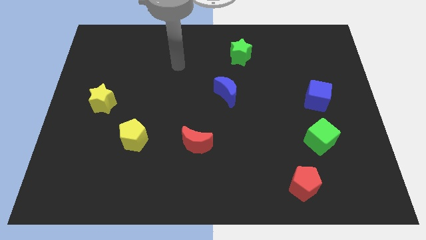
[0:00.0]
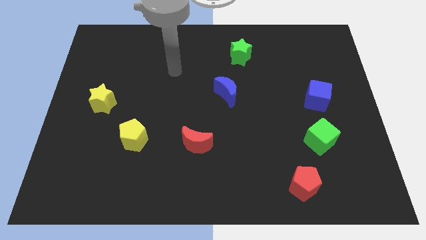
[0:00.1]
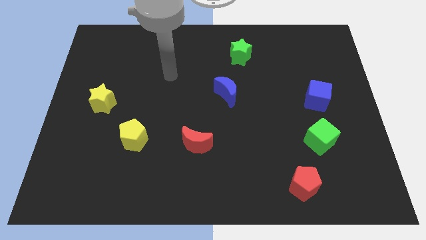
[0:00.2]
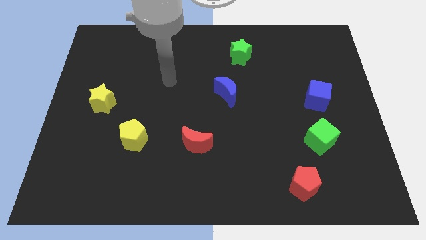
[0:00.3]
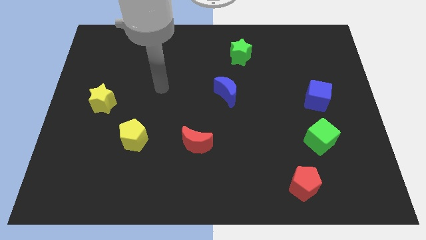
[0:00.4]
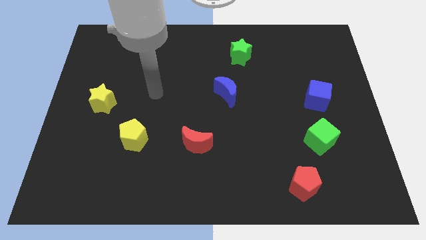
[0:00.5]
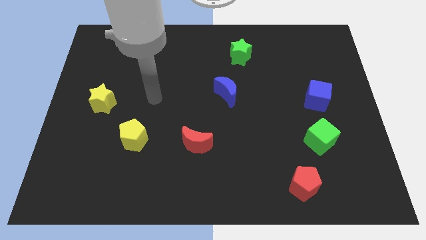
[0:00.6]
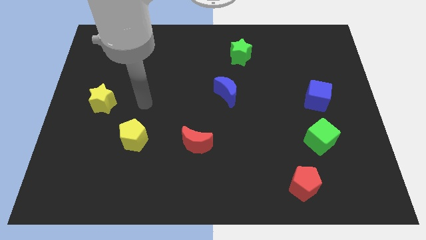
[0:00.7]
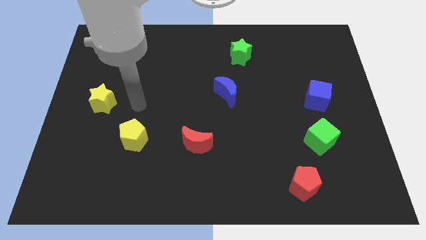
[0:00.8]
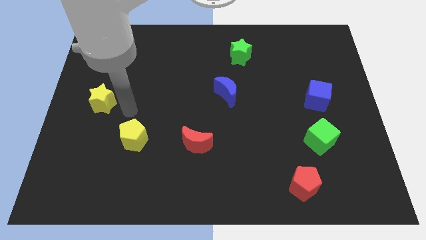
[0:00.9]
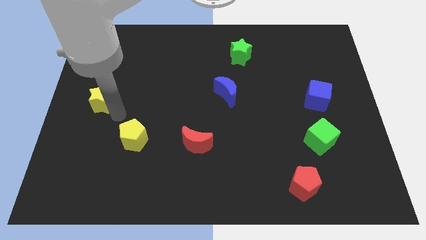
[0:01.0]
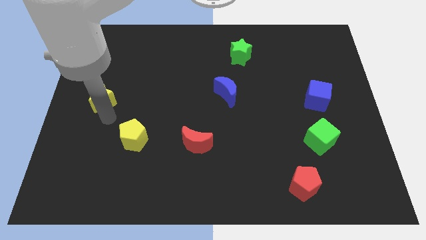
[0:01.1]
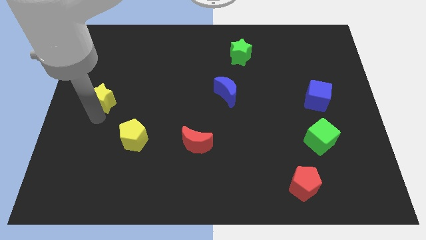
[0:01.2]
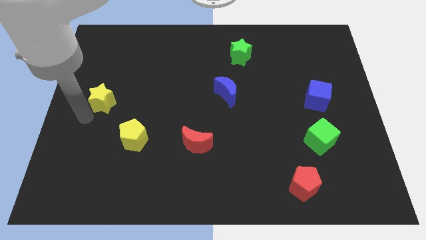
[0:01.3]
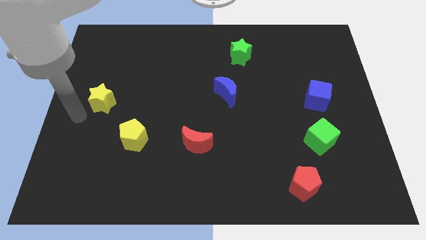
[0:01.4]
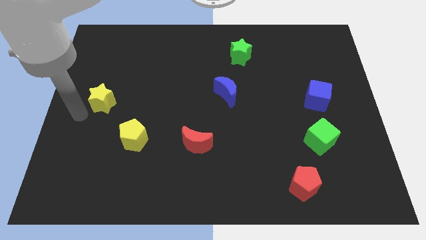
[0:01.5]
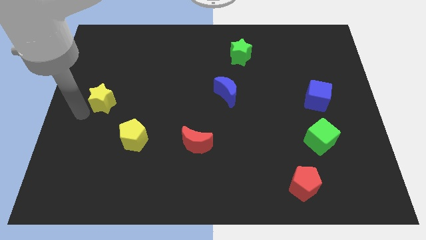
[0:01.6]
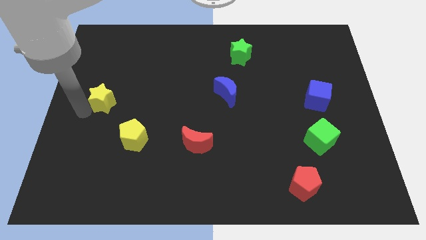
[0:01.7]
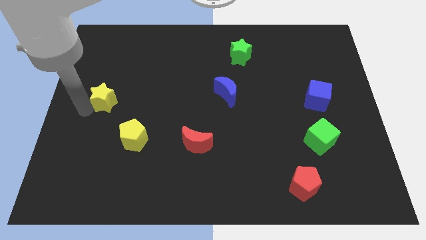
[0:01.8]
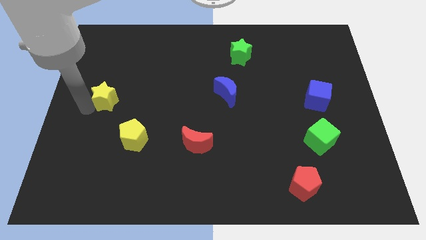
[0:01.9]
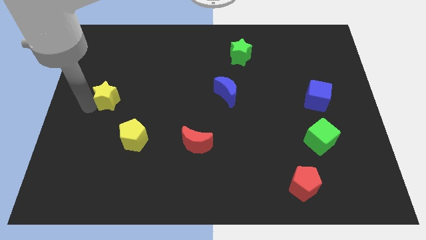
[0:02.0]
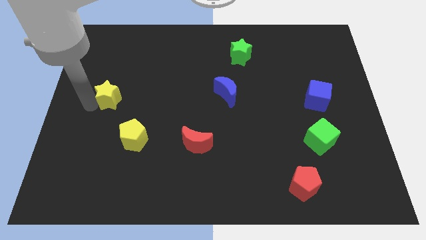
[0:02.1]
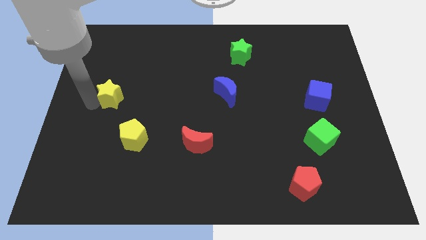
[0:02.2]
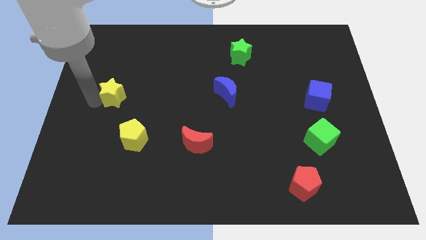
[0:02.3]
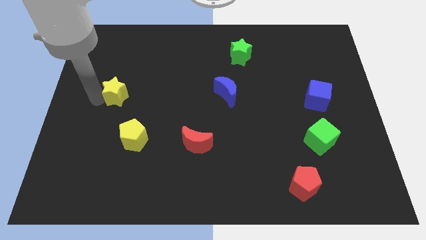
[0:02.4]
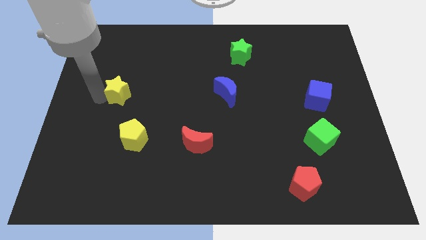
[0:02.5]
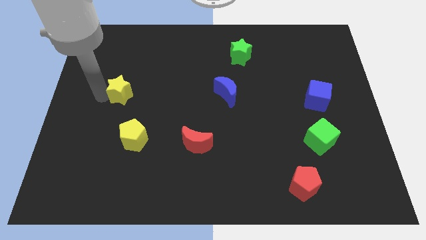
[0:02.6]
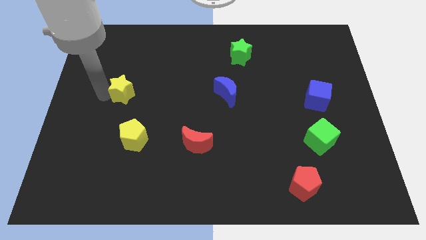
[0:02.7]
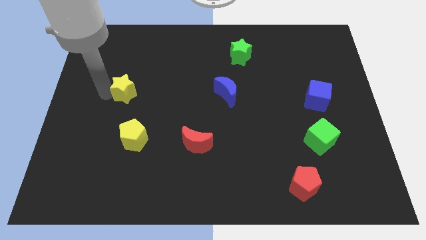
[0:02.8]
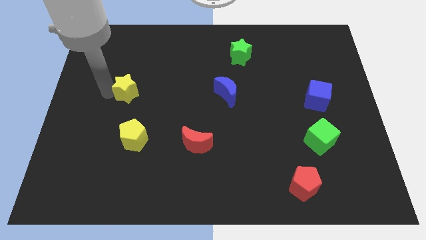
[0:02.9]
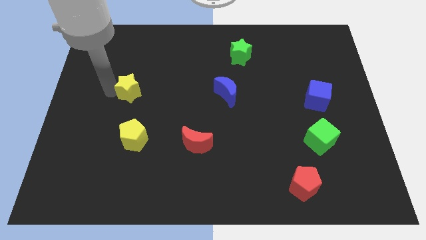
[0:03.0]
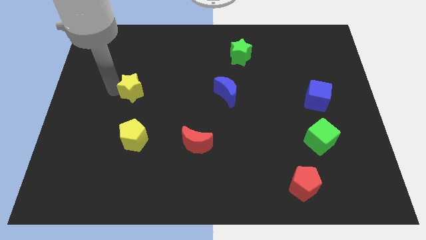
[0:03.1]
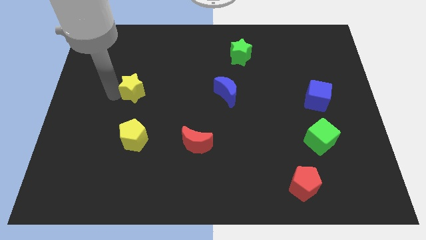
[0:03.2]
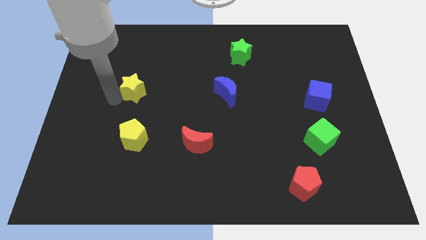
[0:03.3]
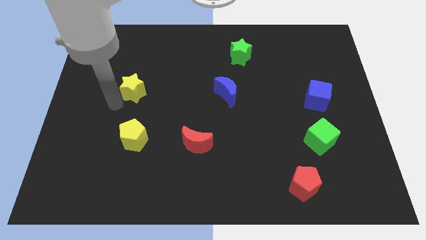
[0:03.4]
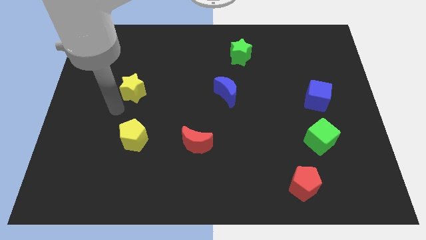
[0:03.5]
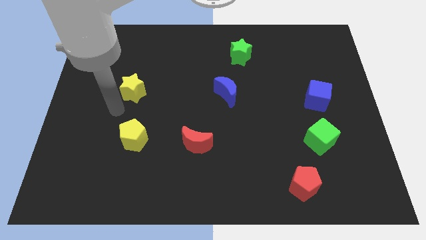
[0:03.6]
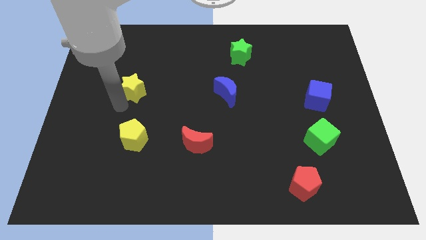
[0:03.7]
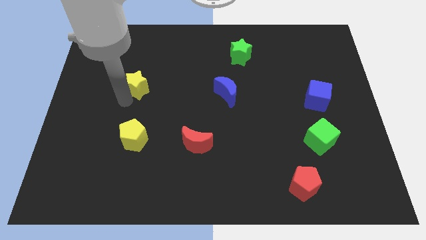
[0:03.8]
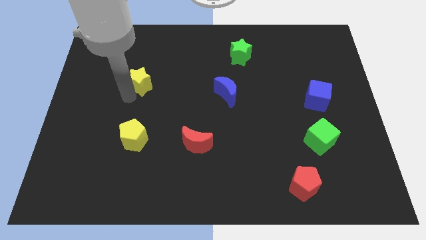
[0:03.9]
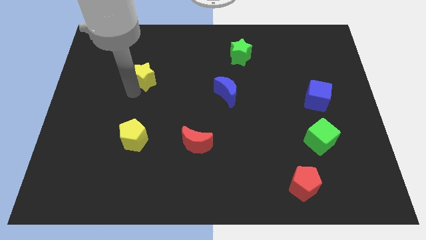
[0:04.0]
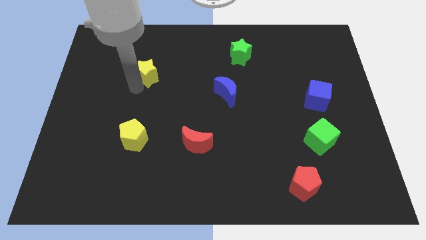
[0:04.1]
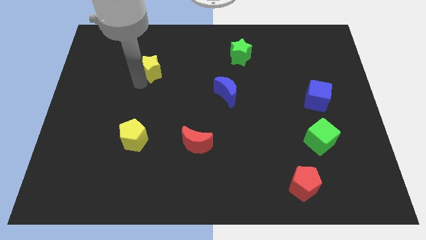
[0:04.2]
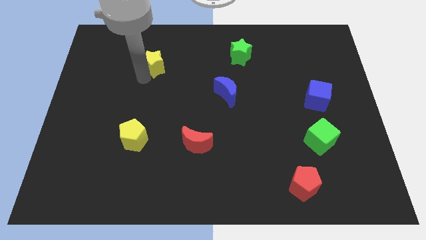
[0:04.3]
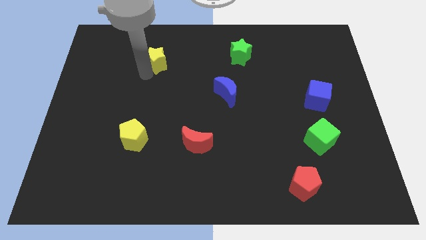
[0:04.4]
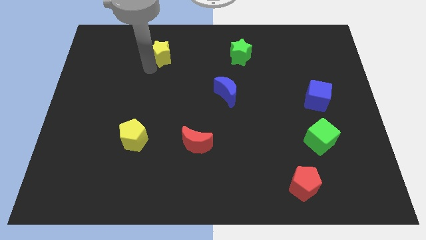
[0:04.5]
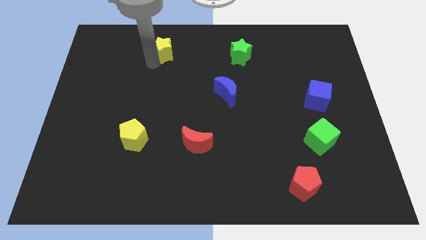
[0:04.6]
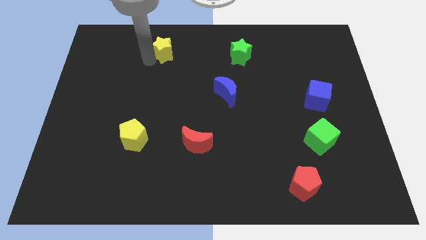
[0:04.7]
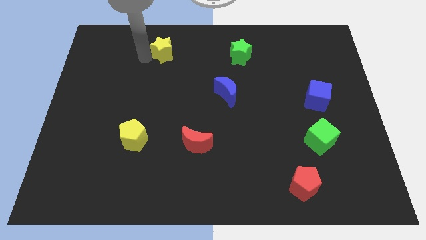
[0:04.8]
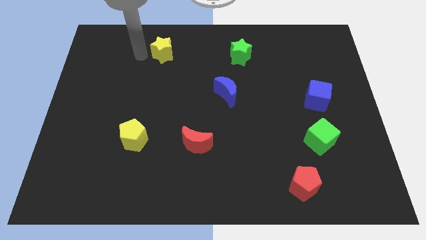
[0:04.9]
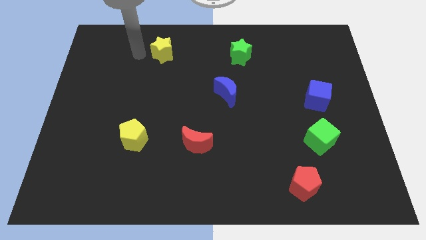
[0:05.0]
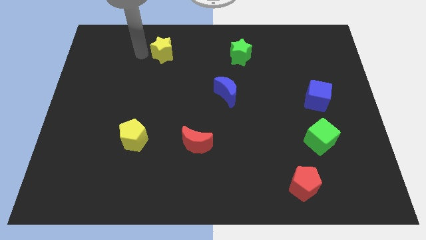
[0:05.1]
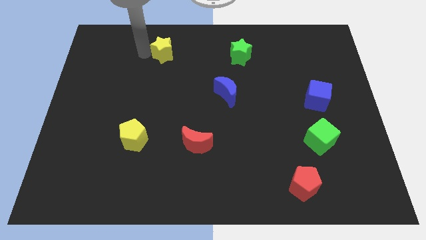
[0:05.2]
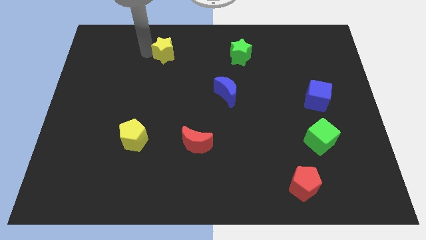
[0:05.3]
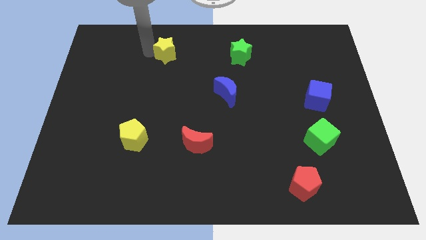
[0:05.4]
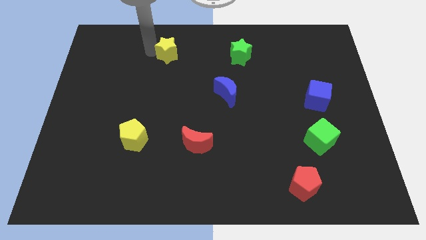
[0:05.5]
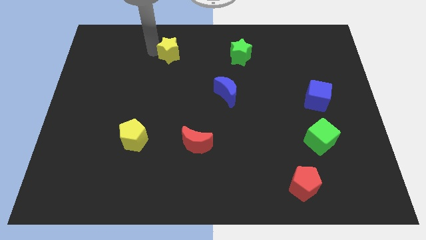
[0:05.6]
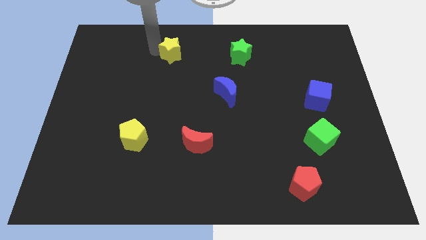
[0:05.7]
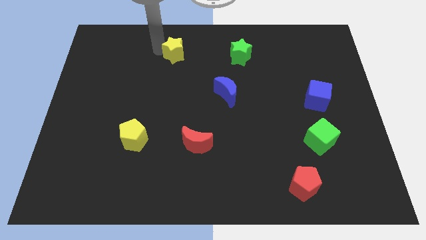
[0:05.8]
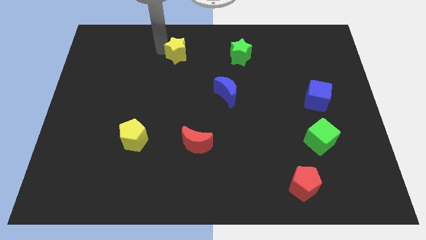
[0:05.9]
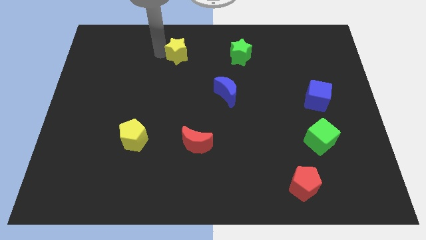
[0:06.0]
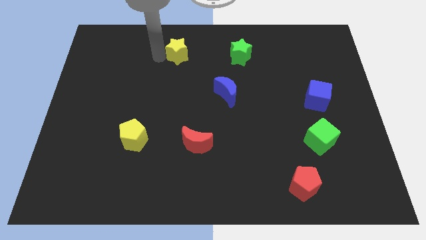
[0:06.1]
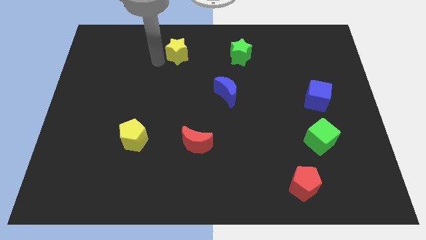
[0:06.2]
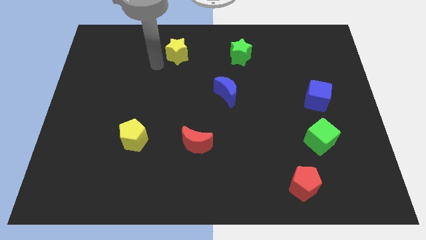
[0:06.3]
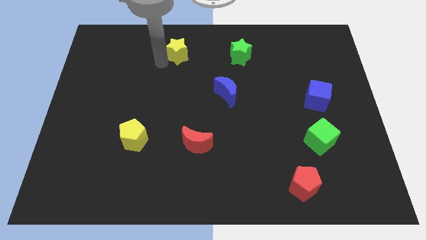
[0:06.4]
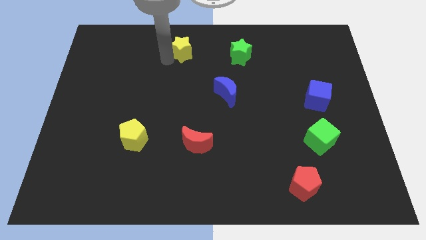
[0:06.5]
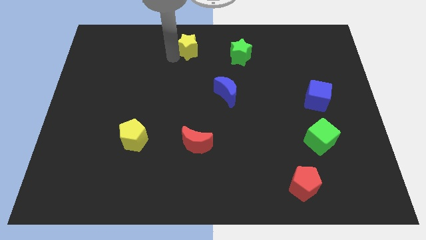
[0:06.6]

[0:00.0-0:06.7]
put the yellow star to the towards your base
